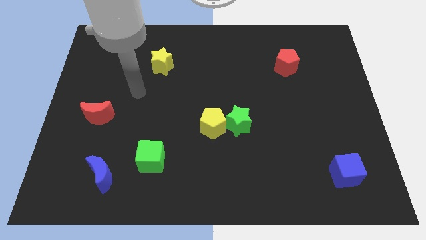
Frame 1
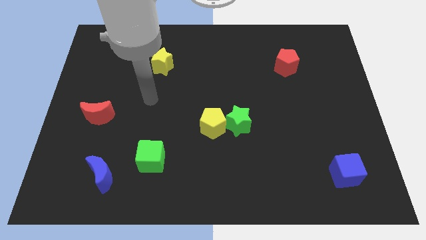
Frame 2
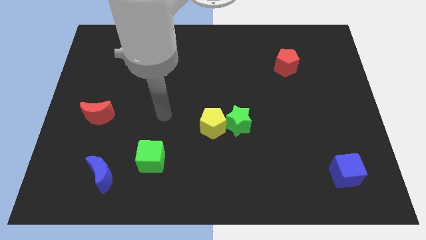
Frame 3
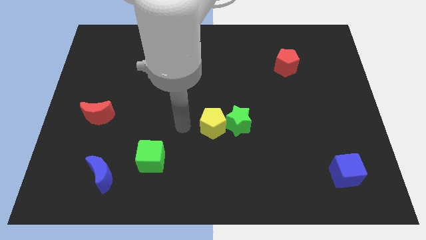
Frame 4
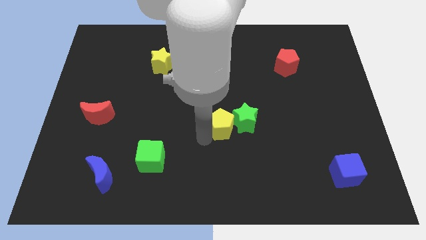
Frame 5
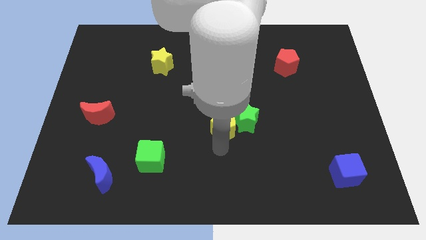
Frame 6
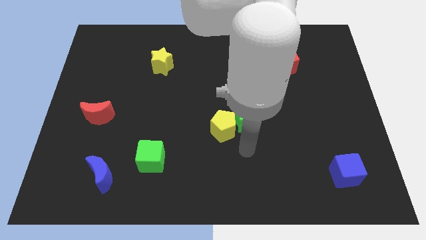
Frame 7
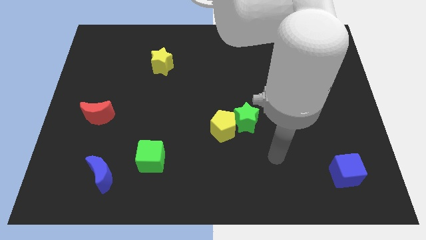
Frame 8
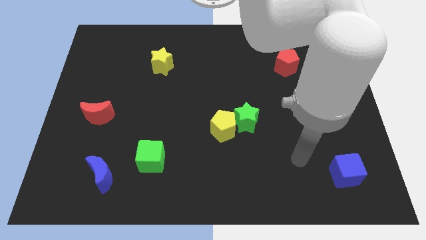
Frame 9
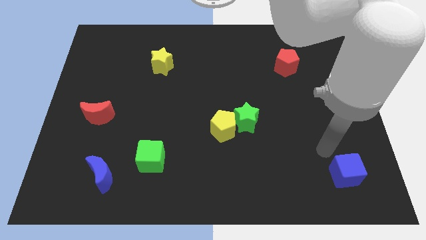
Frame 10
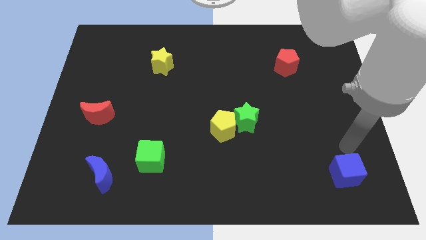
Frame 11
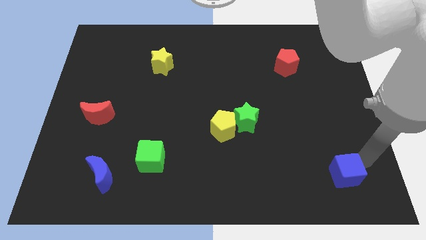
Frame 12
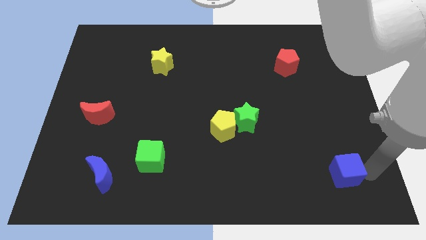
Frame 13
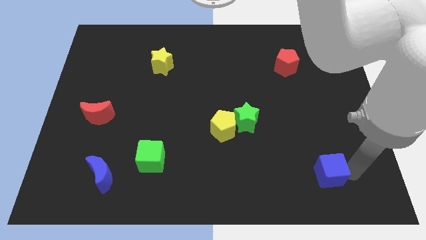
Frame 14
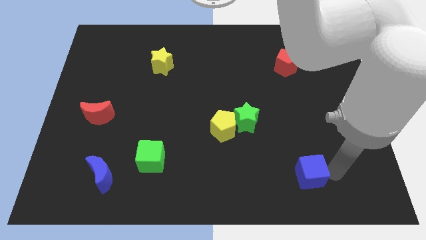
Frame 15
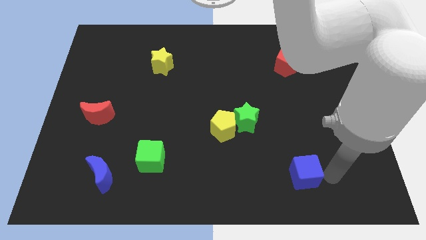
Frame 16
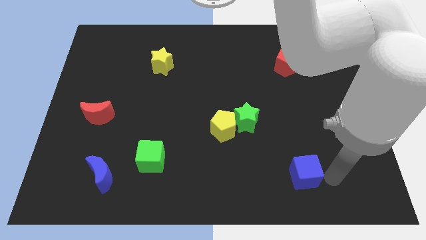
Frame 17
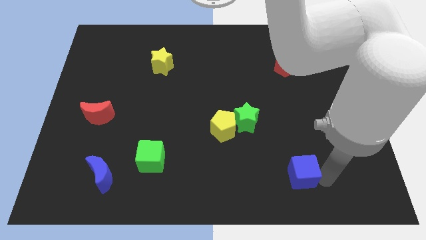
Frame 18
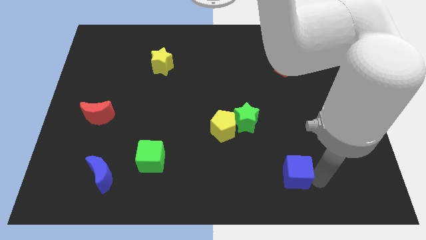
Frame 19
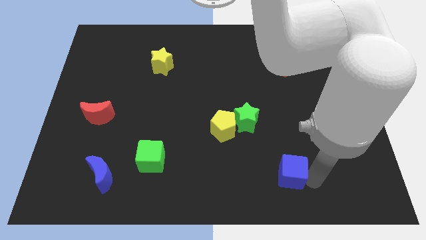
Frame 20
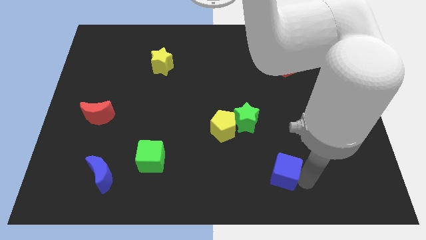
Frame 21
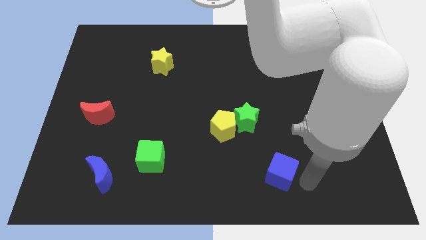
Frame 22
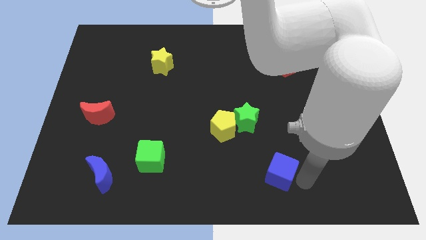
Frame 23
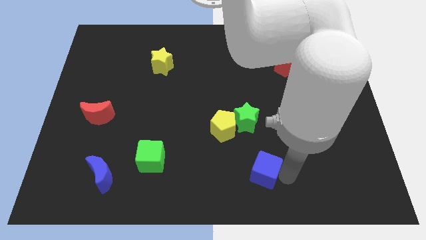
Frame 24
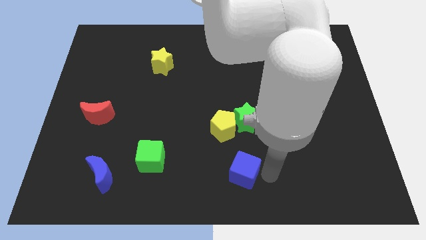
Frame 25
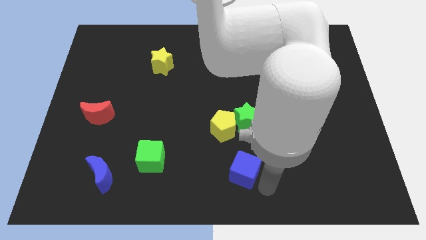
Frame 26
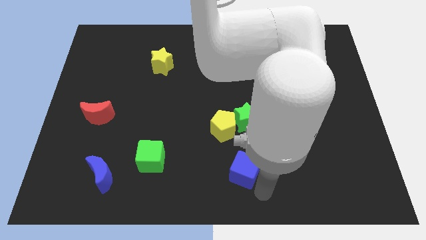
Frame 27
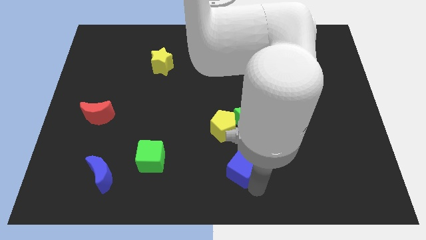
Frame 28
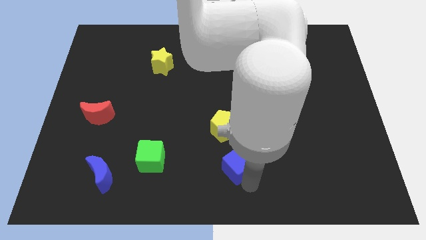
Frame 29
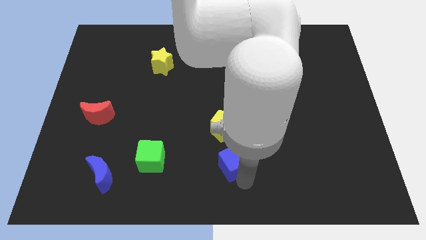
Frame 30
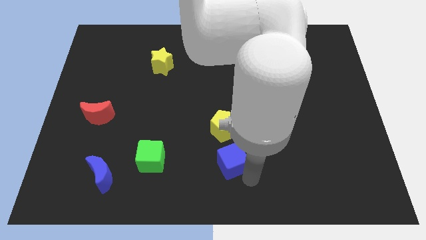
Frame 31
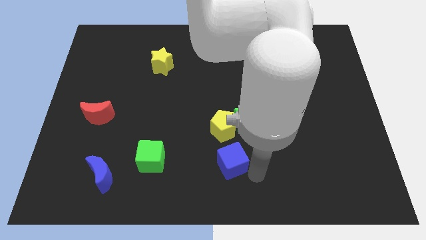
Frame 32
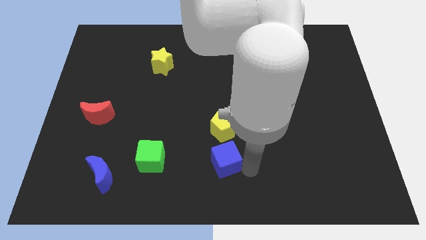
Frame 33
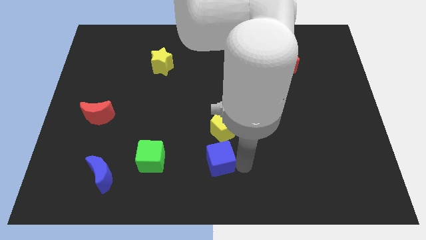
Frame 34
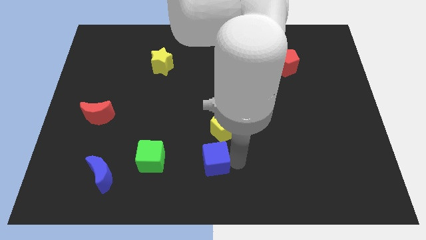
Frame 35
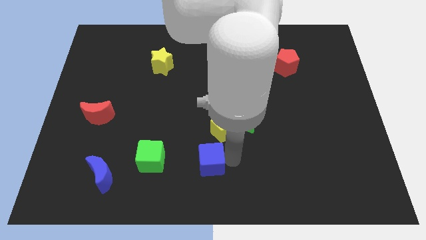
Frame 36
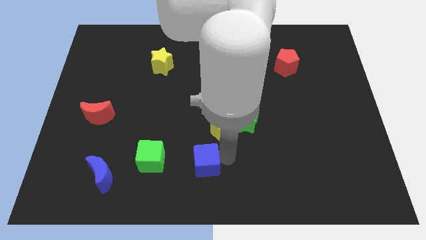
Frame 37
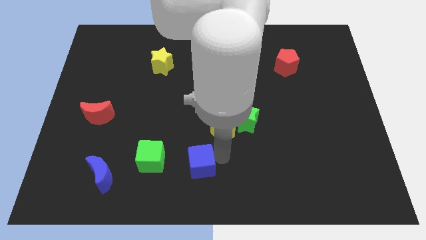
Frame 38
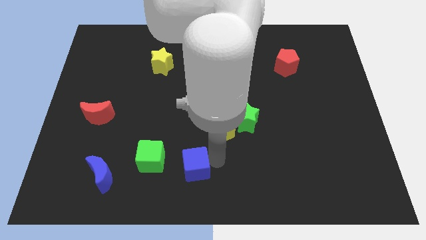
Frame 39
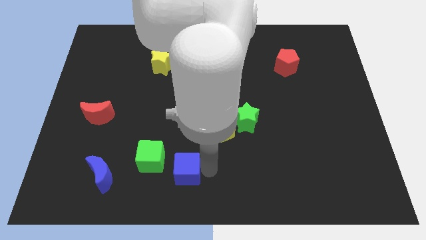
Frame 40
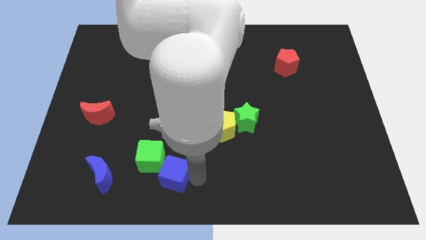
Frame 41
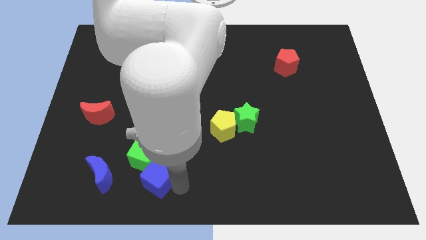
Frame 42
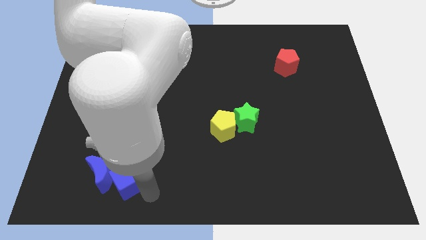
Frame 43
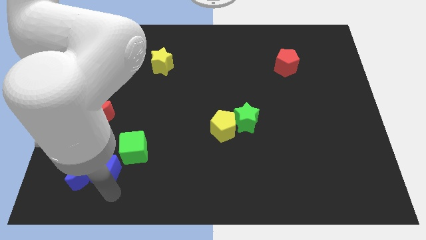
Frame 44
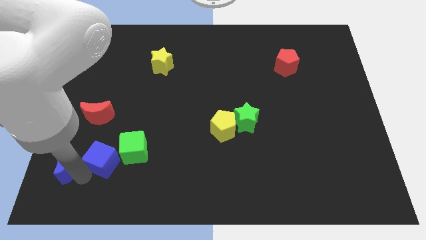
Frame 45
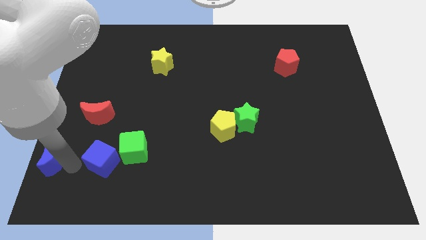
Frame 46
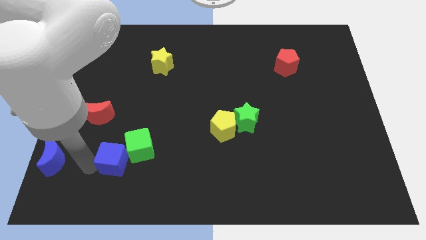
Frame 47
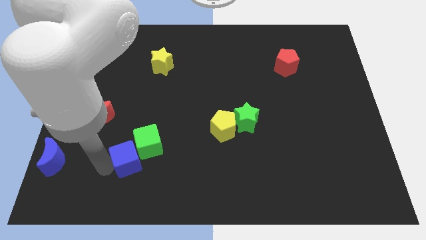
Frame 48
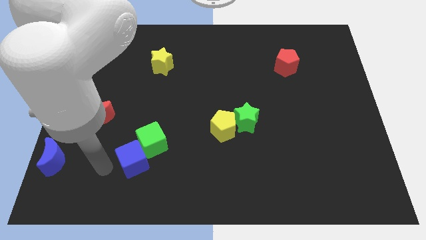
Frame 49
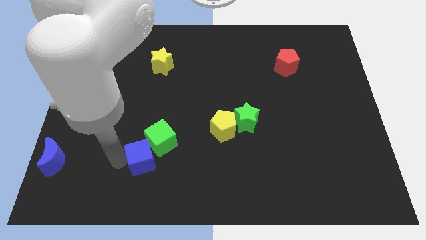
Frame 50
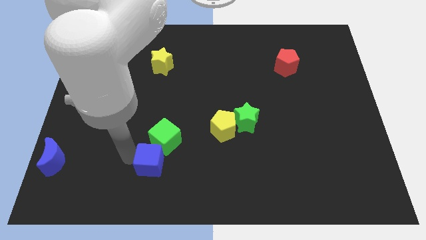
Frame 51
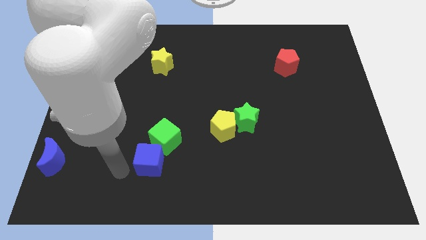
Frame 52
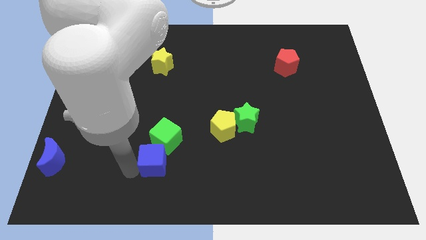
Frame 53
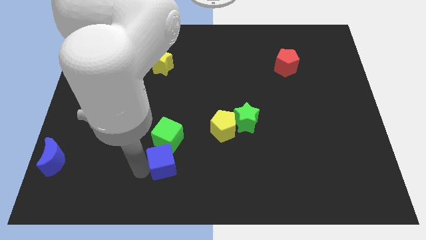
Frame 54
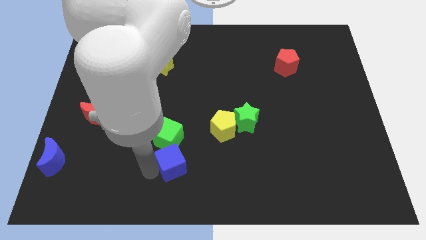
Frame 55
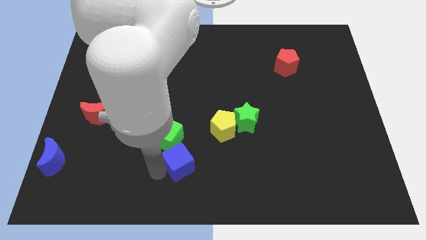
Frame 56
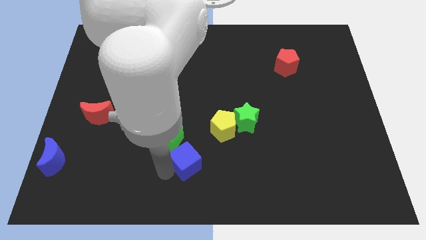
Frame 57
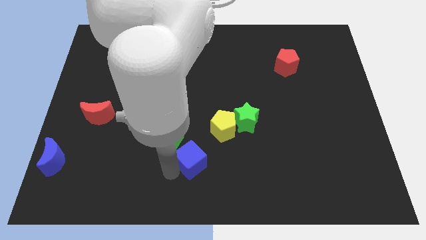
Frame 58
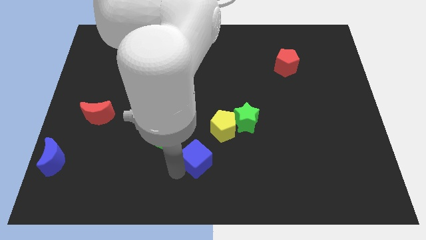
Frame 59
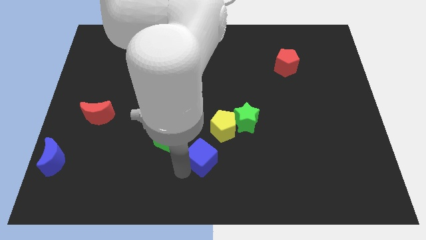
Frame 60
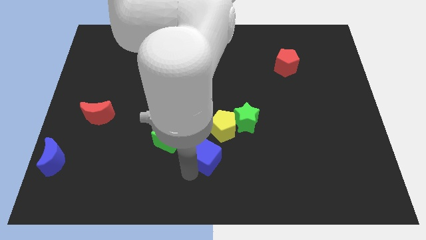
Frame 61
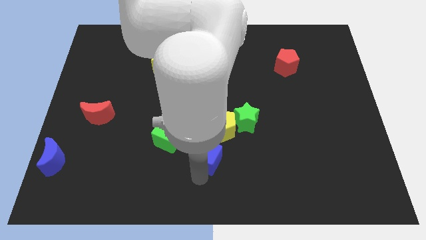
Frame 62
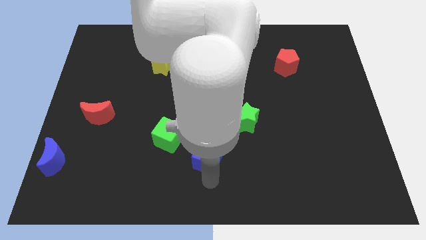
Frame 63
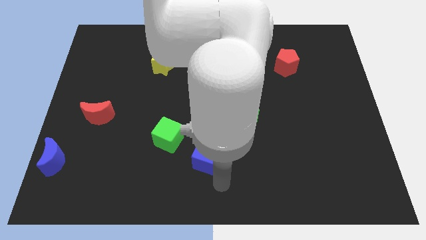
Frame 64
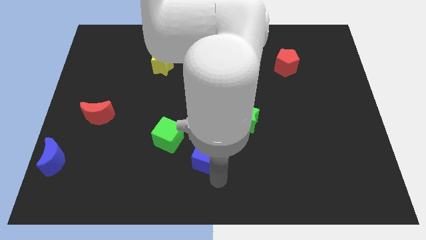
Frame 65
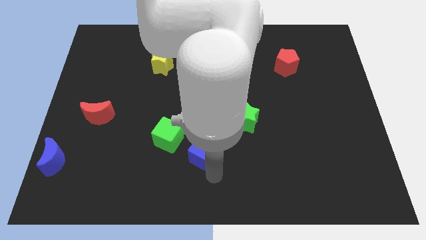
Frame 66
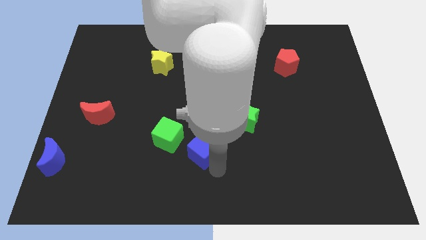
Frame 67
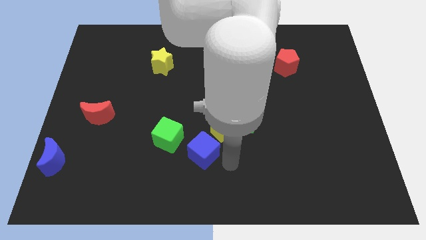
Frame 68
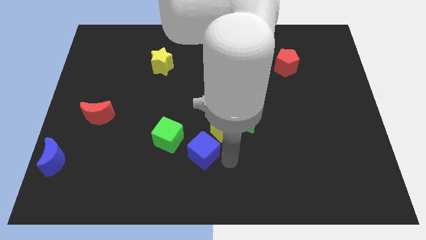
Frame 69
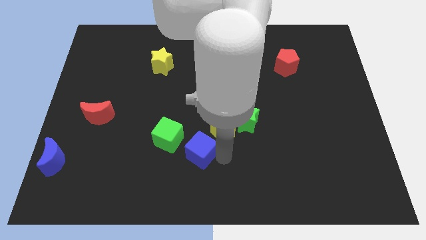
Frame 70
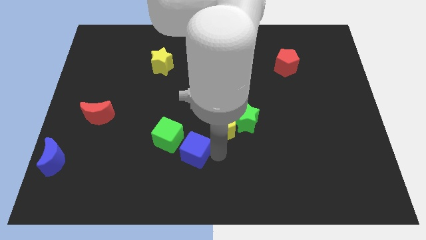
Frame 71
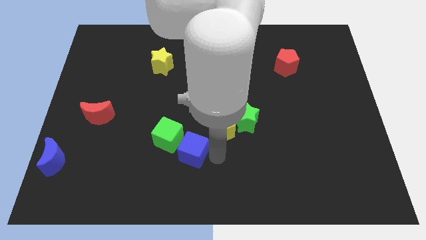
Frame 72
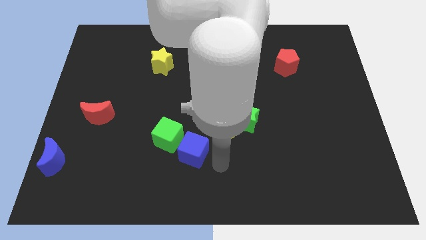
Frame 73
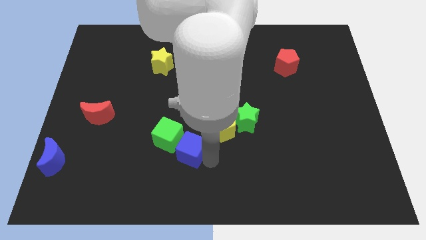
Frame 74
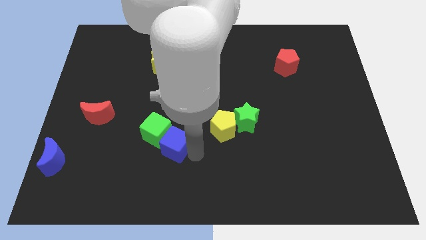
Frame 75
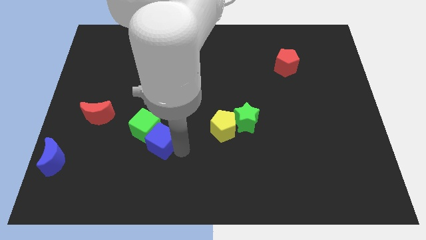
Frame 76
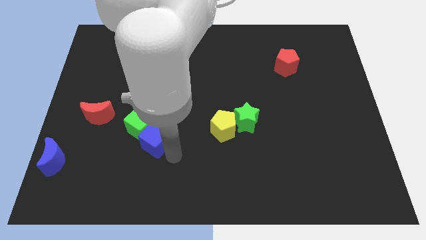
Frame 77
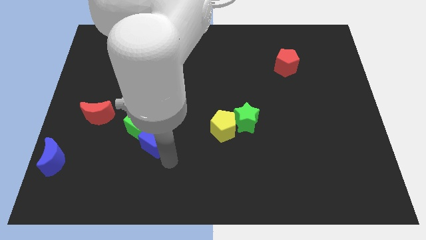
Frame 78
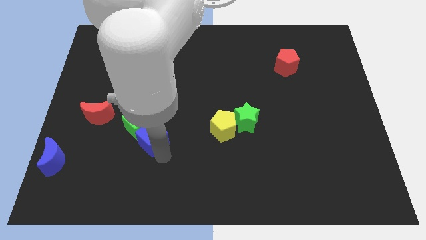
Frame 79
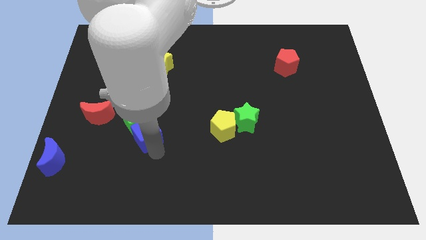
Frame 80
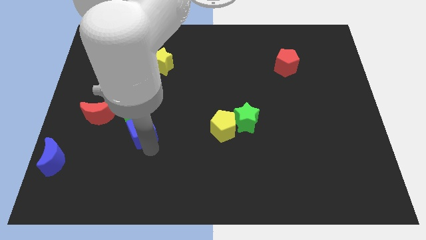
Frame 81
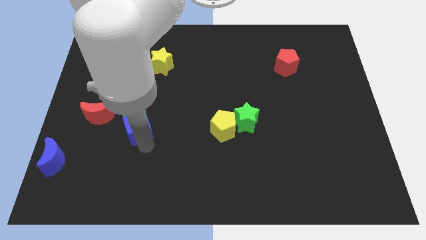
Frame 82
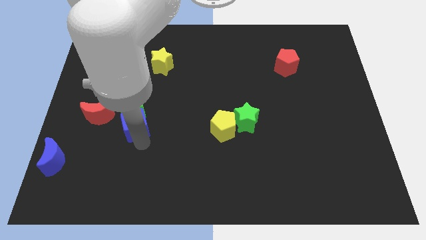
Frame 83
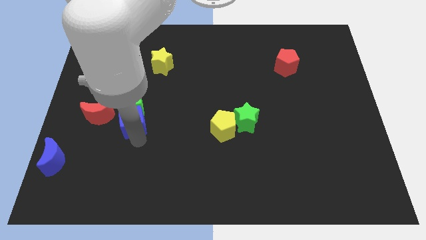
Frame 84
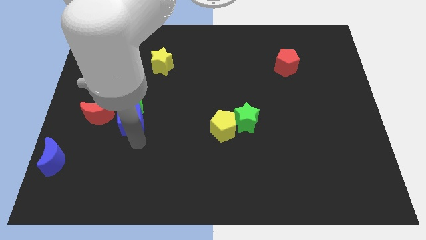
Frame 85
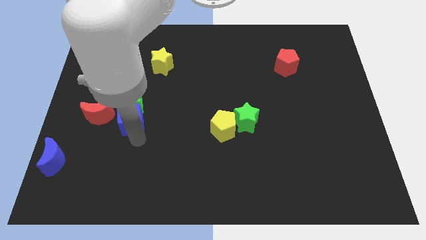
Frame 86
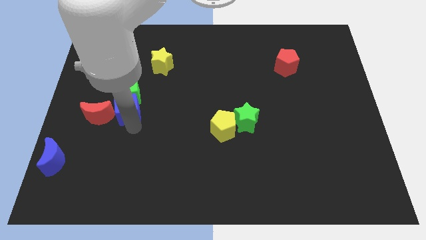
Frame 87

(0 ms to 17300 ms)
push the blue cube to the top right side of the red moon
